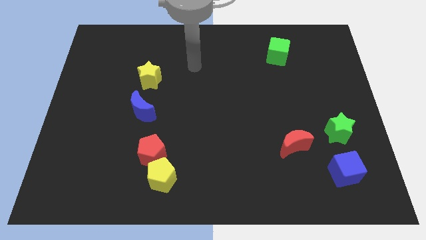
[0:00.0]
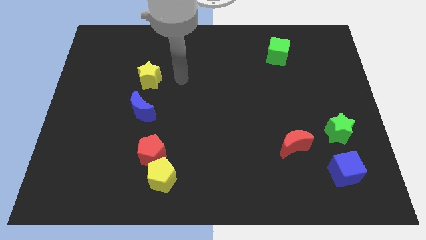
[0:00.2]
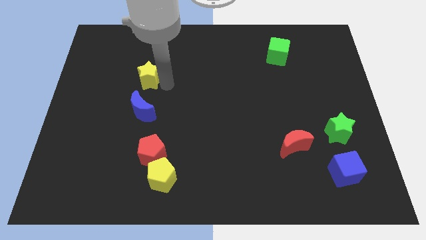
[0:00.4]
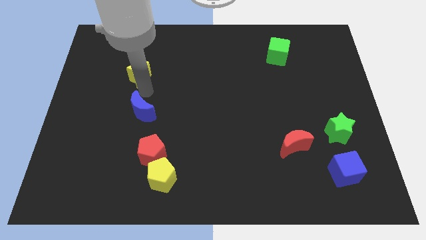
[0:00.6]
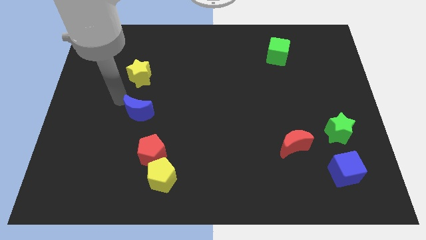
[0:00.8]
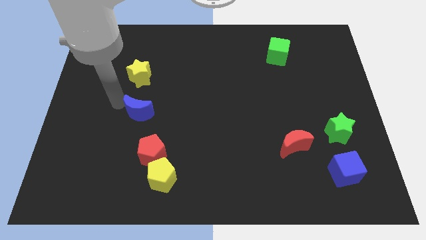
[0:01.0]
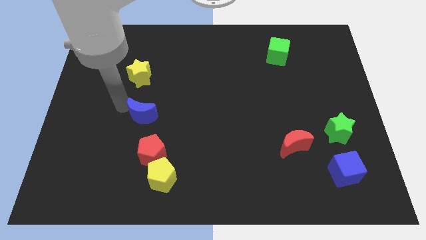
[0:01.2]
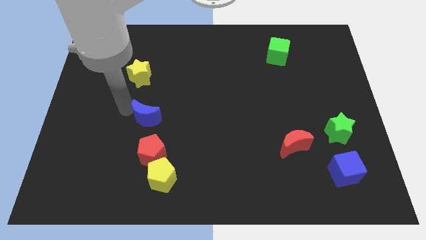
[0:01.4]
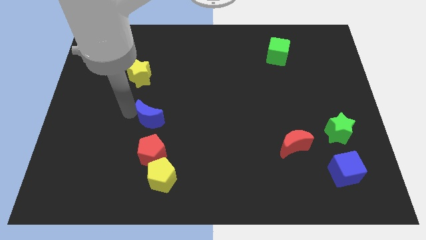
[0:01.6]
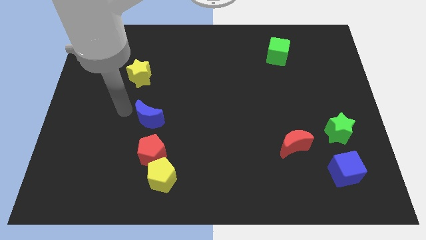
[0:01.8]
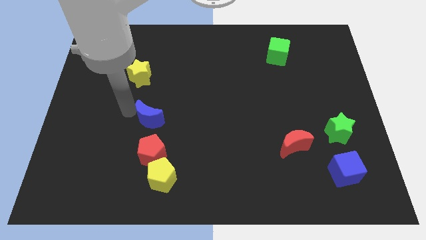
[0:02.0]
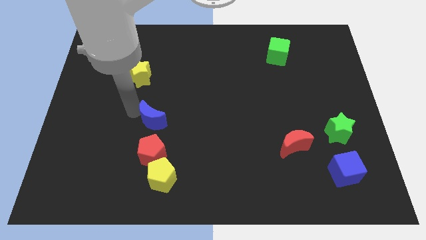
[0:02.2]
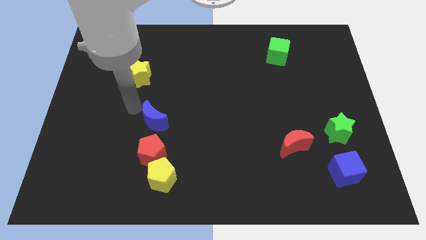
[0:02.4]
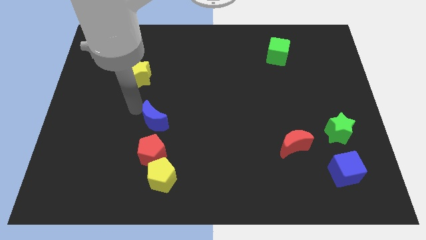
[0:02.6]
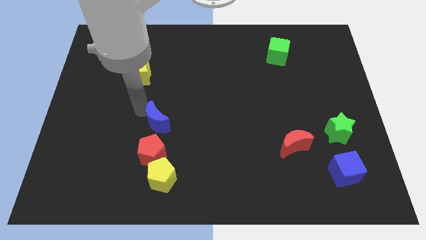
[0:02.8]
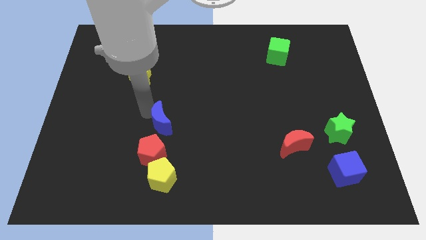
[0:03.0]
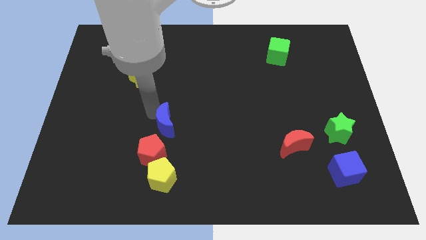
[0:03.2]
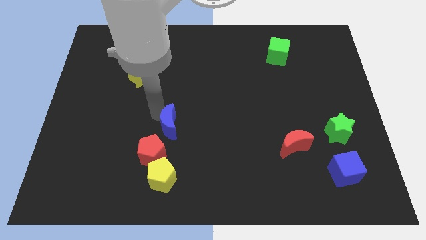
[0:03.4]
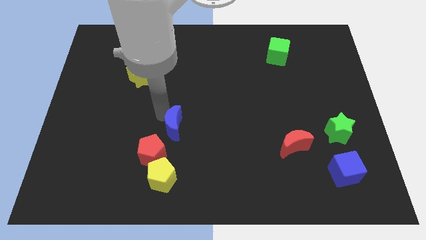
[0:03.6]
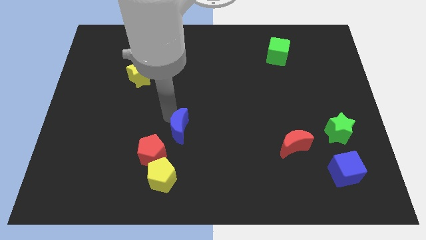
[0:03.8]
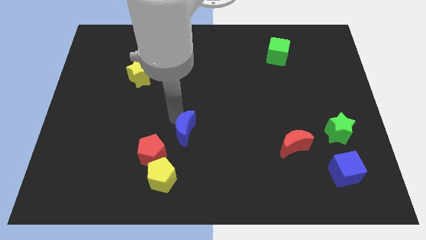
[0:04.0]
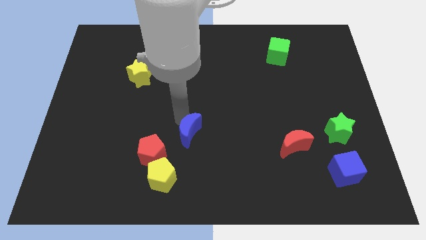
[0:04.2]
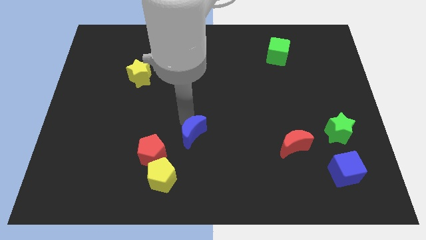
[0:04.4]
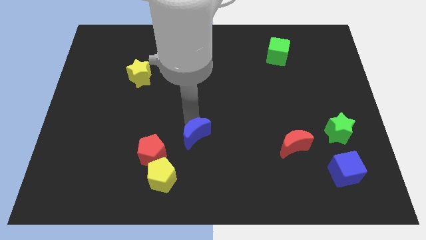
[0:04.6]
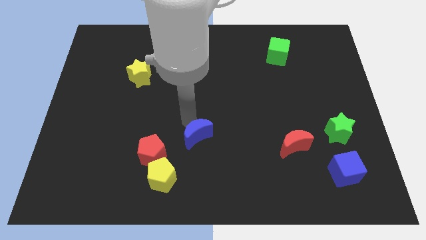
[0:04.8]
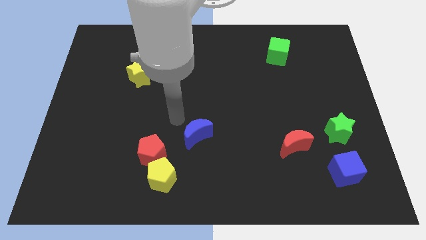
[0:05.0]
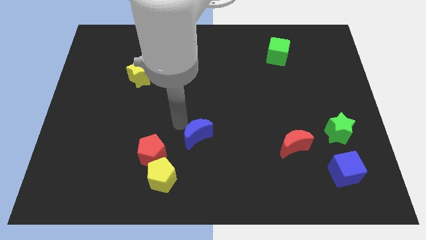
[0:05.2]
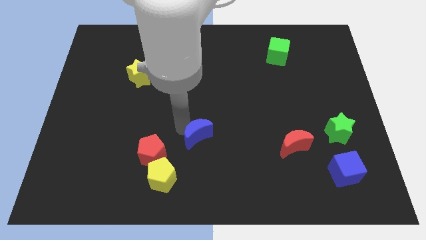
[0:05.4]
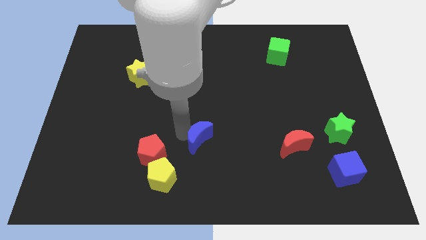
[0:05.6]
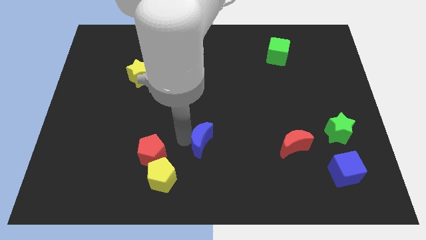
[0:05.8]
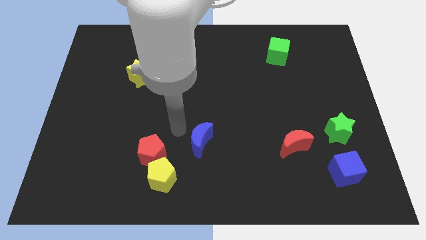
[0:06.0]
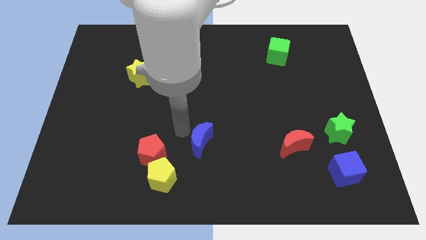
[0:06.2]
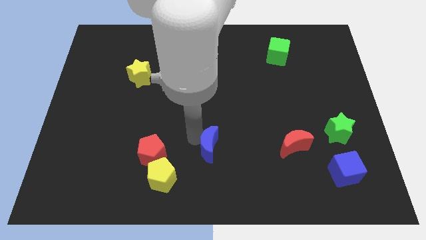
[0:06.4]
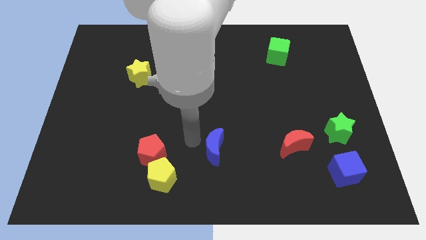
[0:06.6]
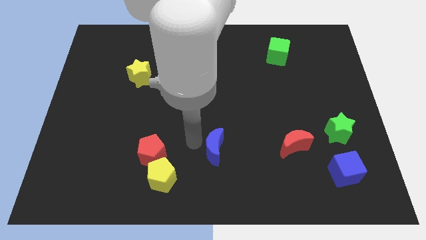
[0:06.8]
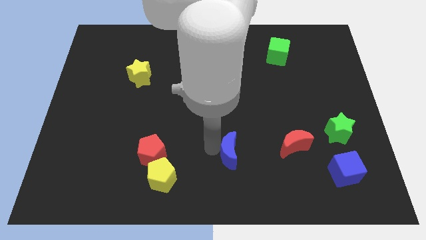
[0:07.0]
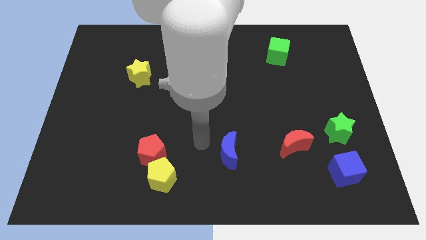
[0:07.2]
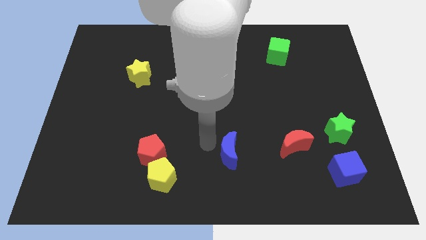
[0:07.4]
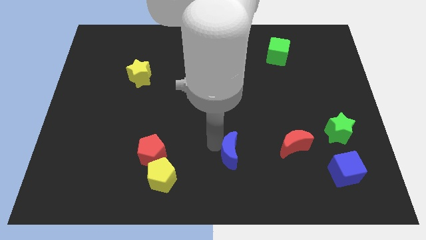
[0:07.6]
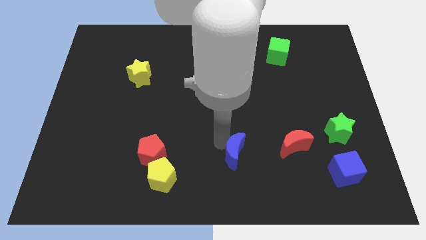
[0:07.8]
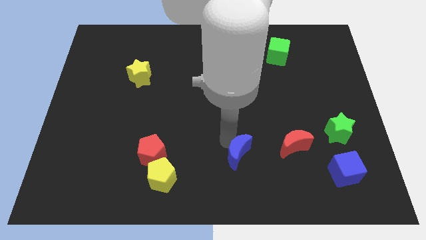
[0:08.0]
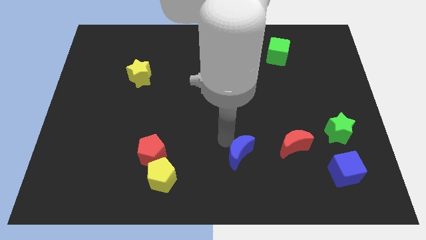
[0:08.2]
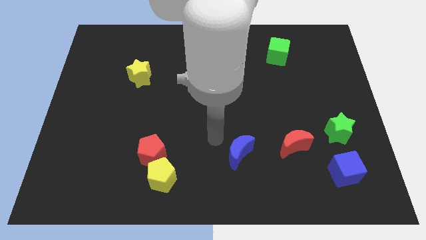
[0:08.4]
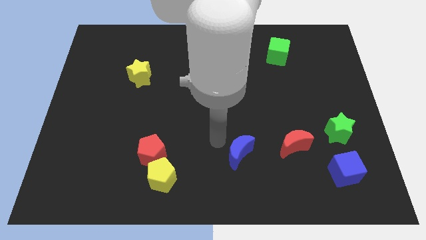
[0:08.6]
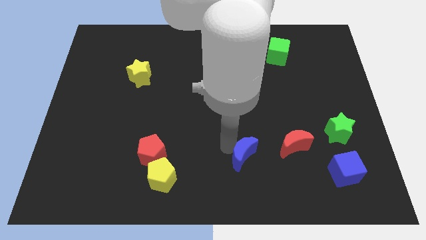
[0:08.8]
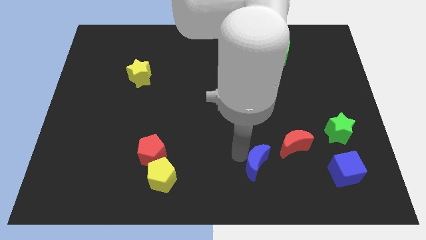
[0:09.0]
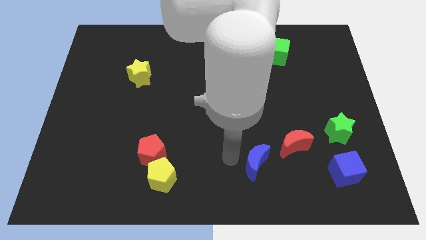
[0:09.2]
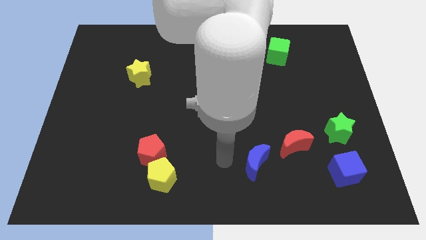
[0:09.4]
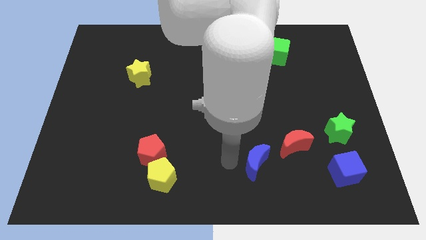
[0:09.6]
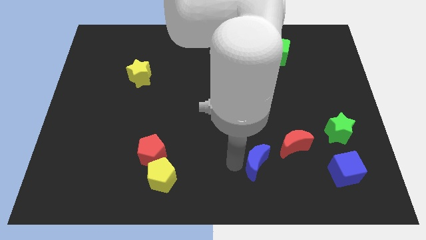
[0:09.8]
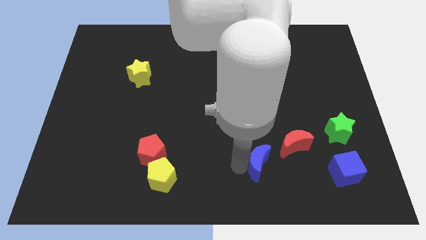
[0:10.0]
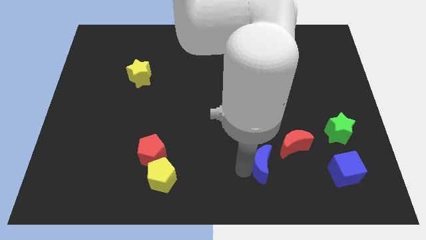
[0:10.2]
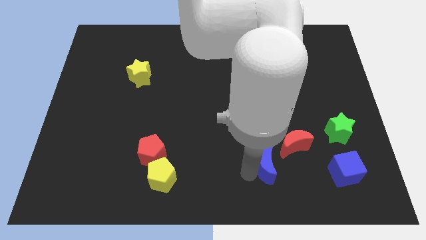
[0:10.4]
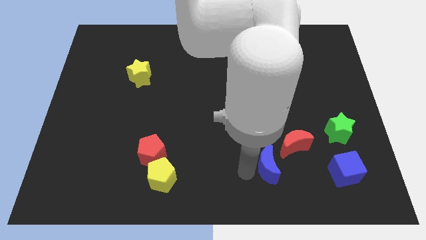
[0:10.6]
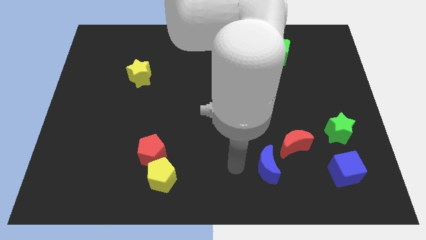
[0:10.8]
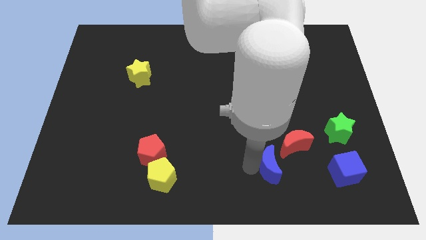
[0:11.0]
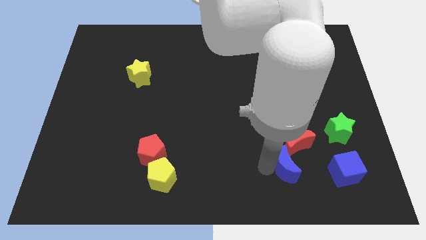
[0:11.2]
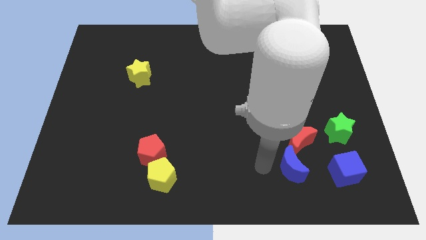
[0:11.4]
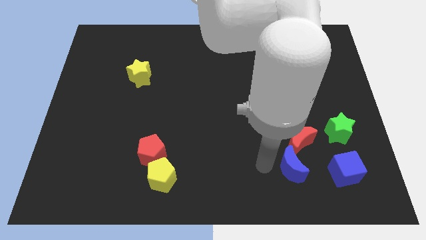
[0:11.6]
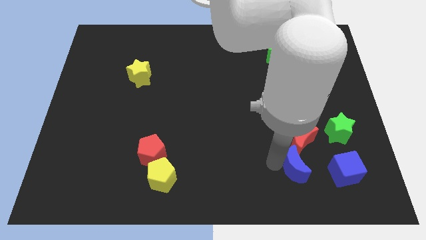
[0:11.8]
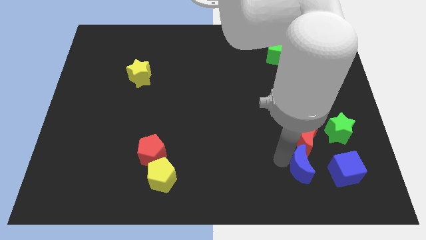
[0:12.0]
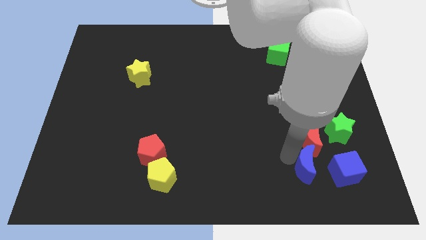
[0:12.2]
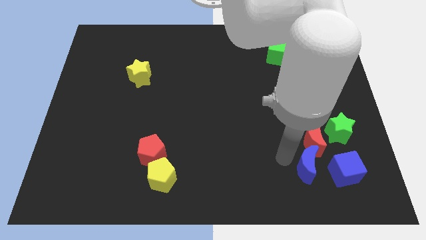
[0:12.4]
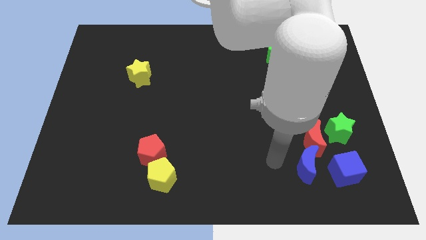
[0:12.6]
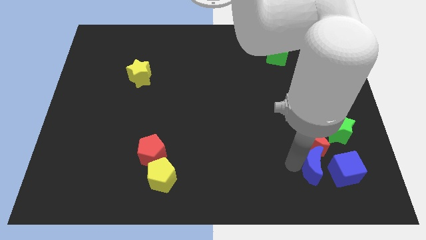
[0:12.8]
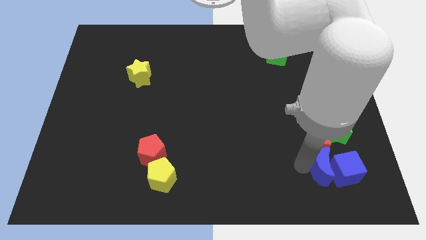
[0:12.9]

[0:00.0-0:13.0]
push the blue moon towards the blue cube
